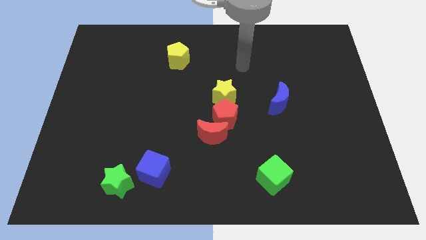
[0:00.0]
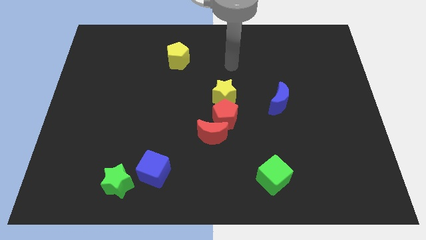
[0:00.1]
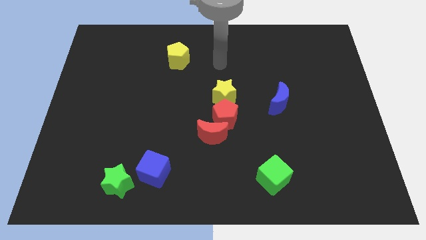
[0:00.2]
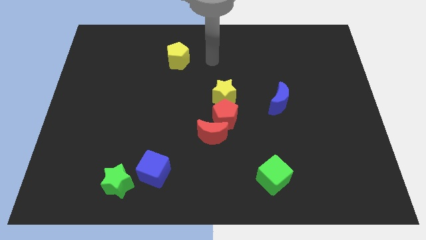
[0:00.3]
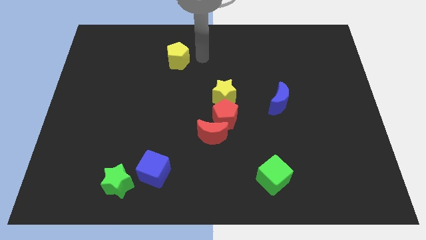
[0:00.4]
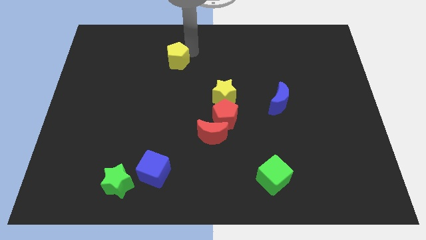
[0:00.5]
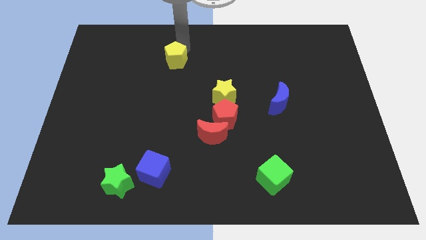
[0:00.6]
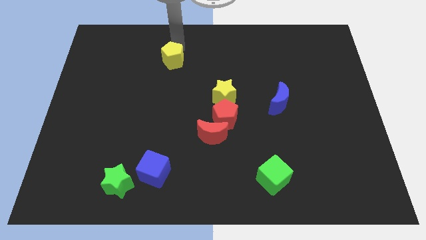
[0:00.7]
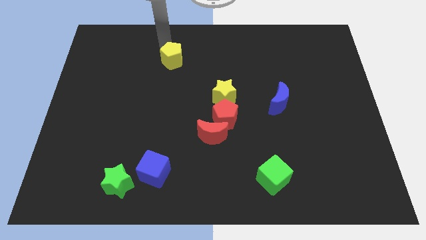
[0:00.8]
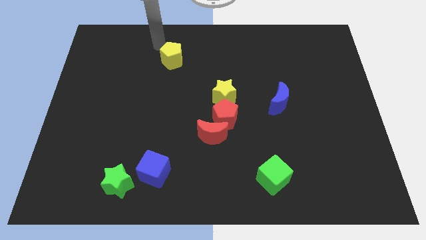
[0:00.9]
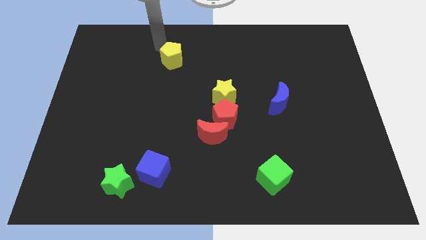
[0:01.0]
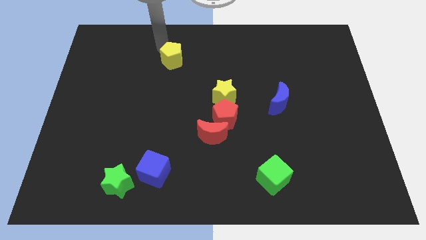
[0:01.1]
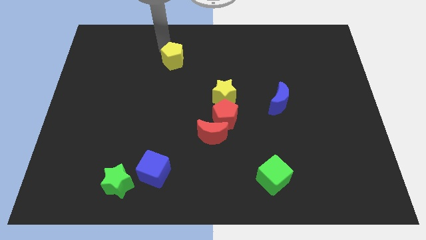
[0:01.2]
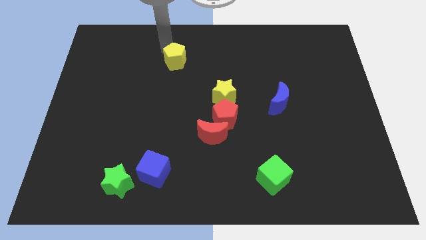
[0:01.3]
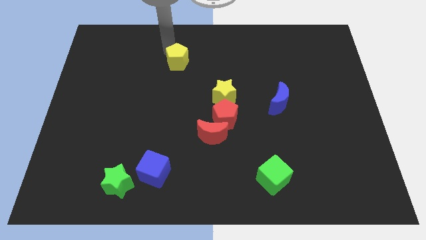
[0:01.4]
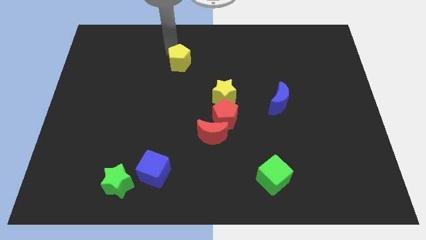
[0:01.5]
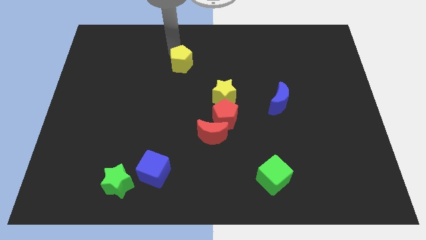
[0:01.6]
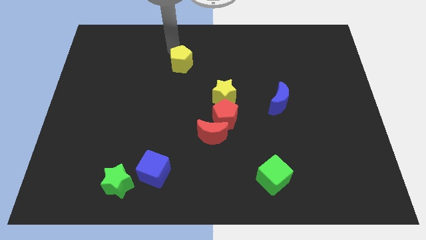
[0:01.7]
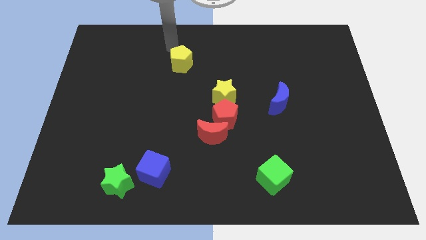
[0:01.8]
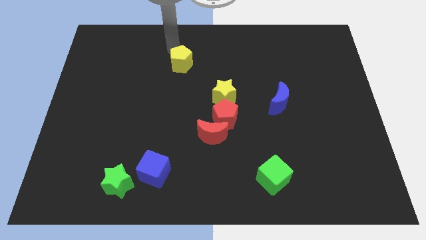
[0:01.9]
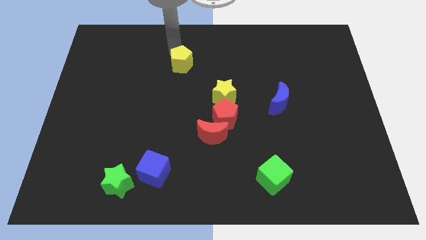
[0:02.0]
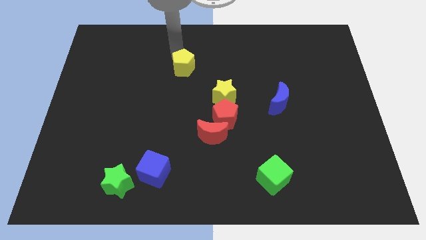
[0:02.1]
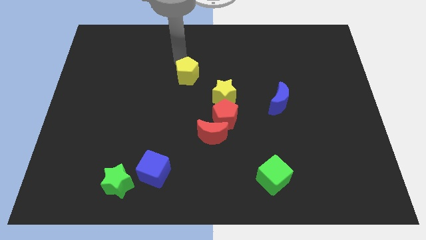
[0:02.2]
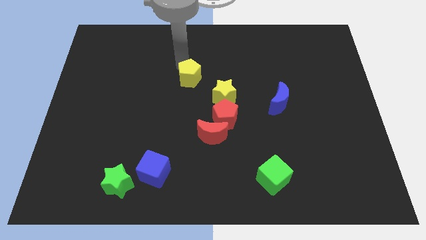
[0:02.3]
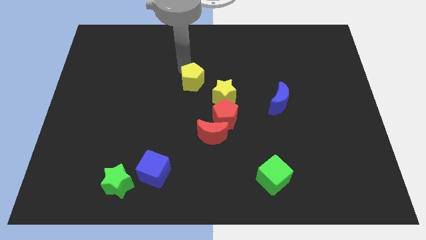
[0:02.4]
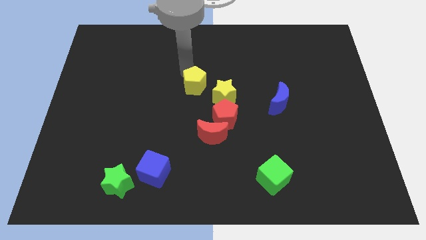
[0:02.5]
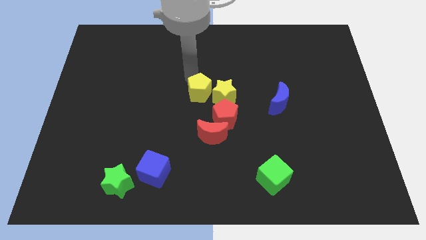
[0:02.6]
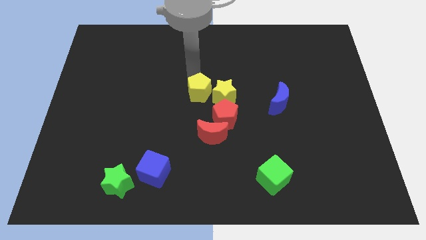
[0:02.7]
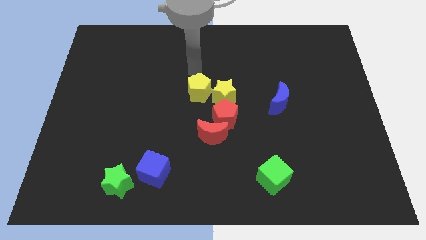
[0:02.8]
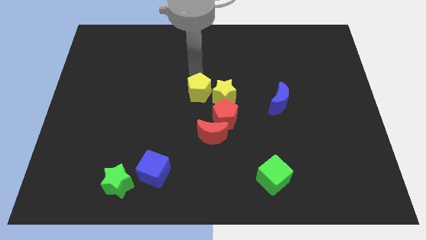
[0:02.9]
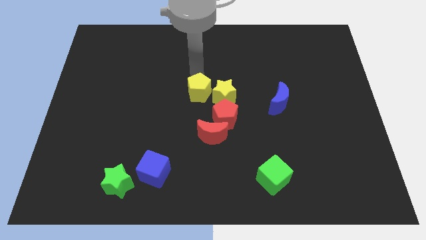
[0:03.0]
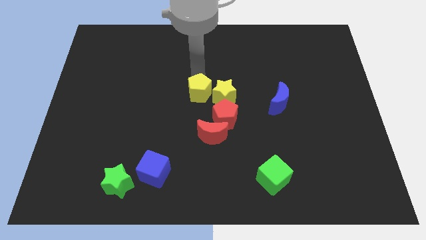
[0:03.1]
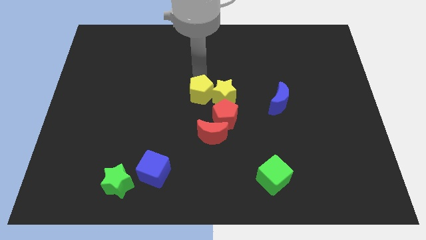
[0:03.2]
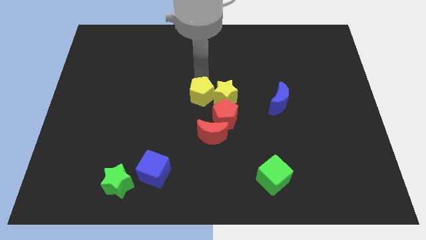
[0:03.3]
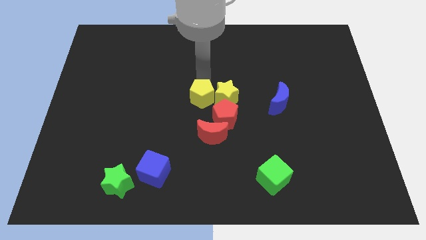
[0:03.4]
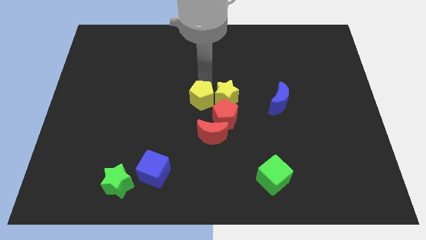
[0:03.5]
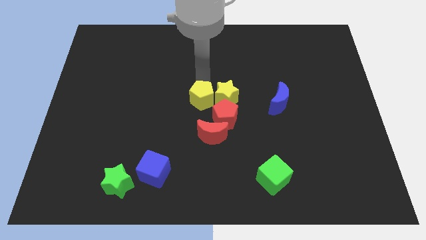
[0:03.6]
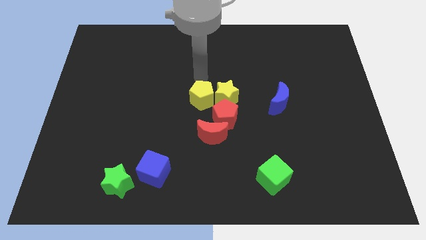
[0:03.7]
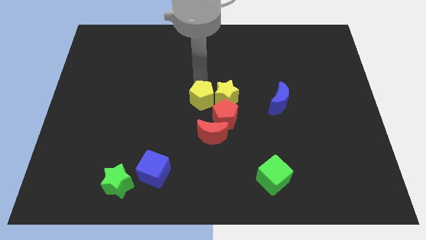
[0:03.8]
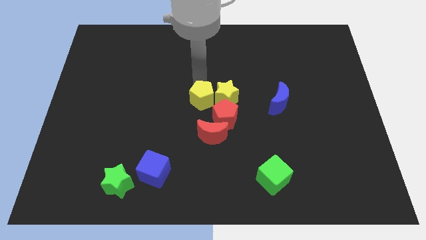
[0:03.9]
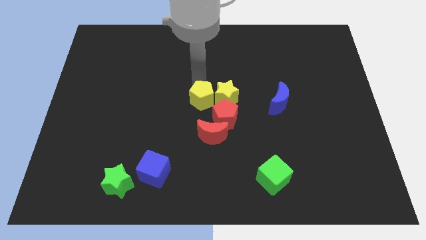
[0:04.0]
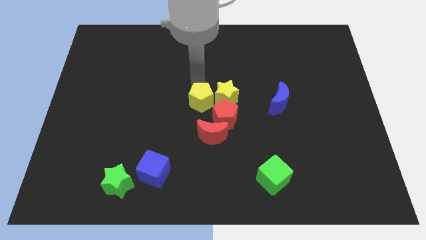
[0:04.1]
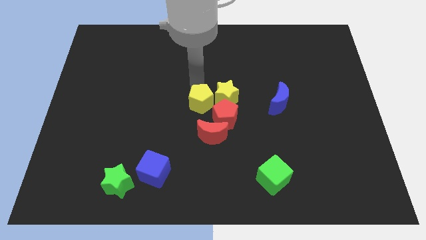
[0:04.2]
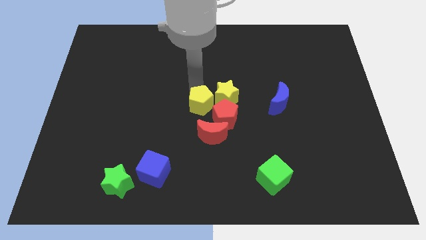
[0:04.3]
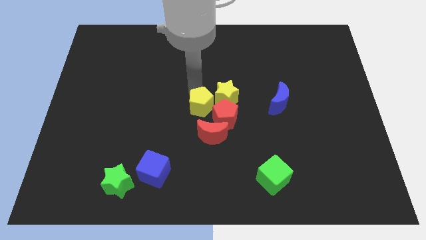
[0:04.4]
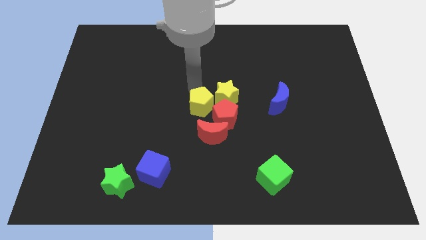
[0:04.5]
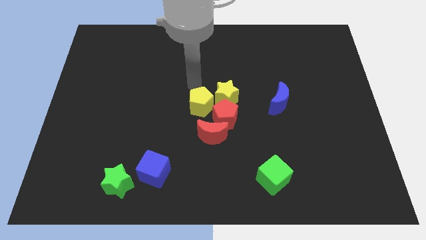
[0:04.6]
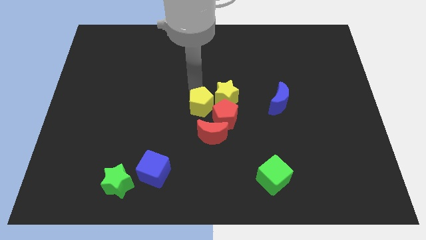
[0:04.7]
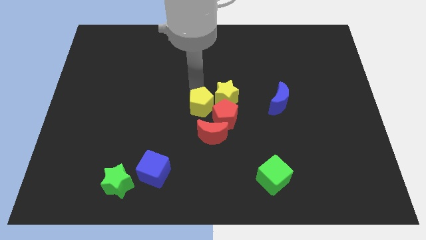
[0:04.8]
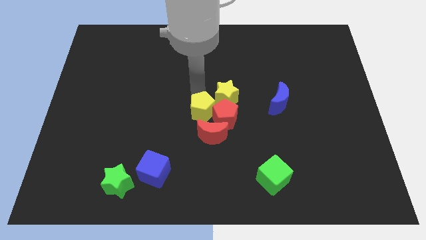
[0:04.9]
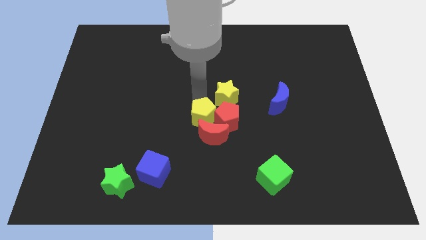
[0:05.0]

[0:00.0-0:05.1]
push the yellow pentagon next to the red moon

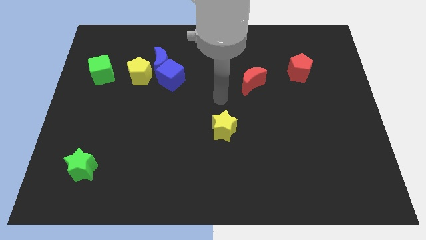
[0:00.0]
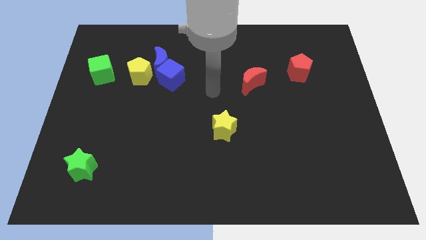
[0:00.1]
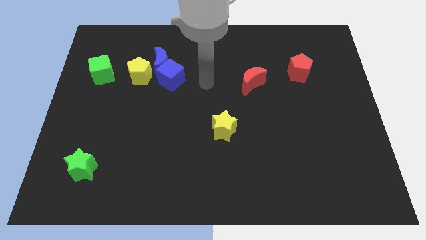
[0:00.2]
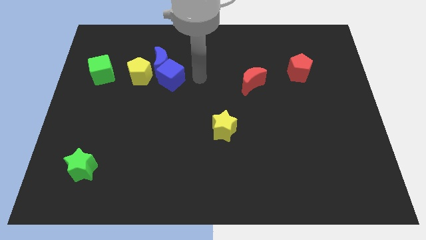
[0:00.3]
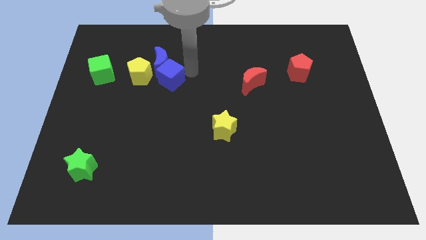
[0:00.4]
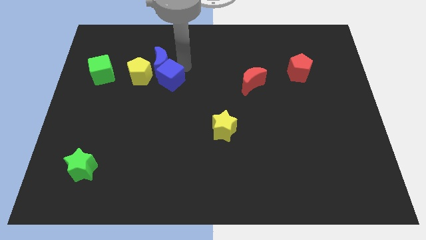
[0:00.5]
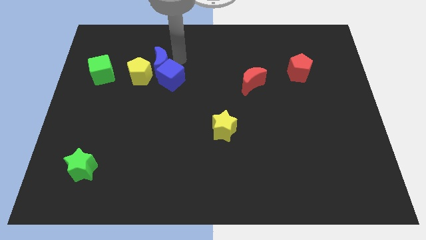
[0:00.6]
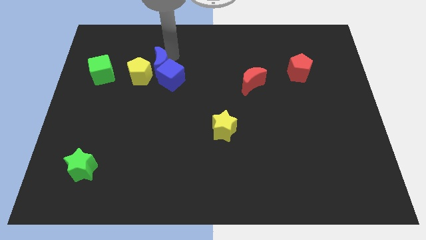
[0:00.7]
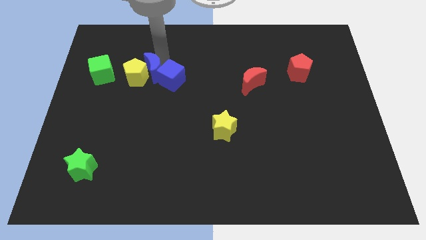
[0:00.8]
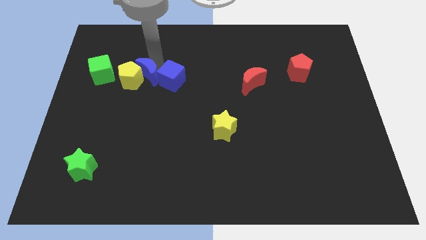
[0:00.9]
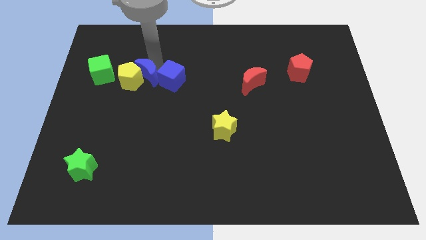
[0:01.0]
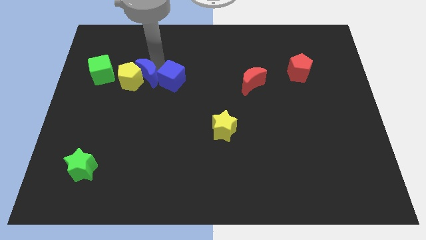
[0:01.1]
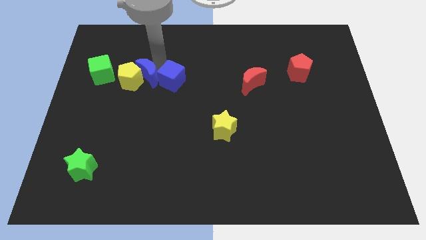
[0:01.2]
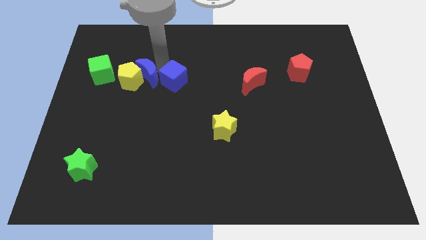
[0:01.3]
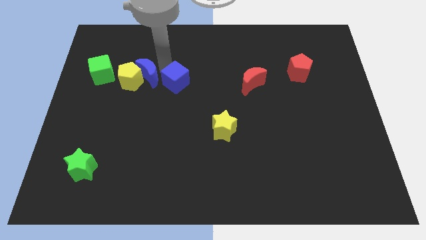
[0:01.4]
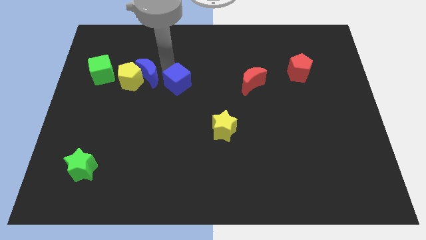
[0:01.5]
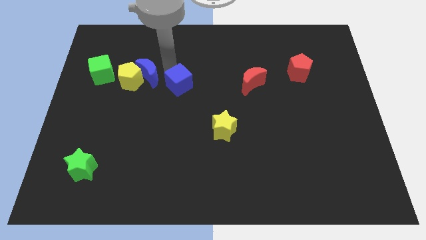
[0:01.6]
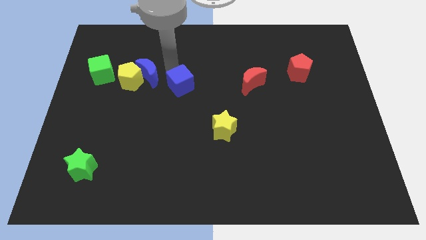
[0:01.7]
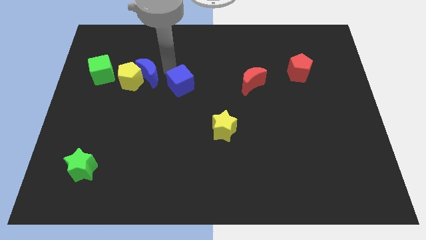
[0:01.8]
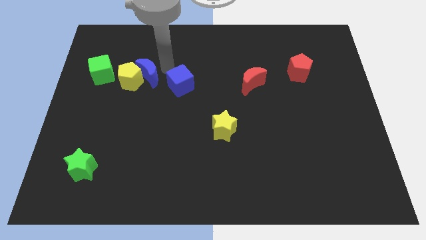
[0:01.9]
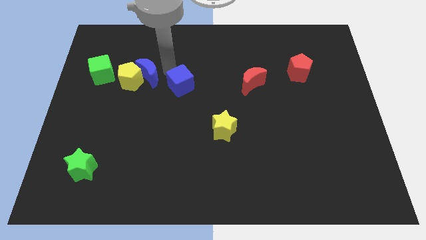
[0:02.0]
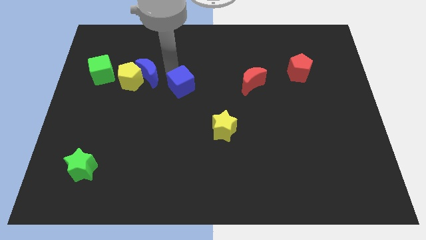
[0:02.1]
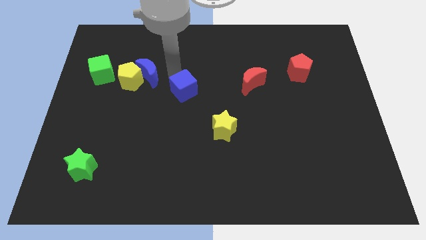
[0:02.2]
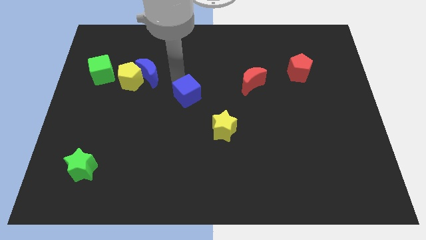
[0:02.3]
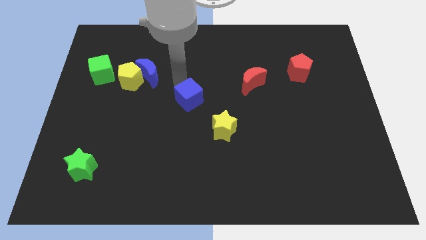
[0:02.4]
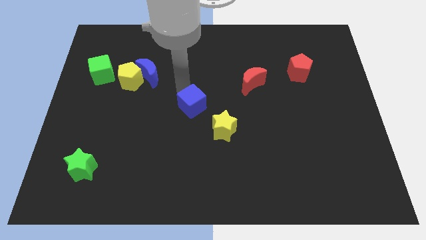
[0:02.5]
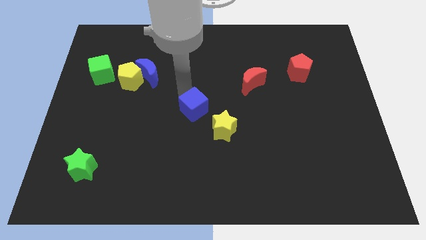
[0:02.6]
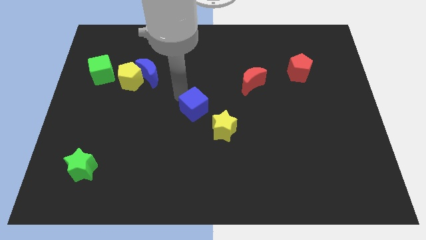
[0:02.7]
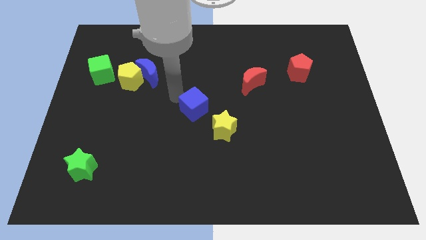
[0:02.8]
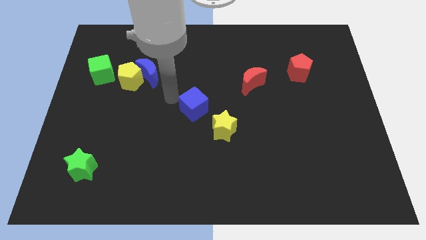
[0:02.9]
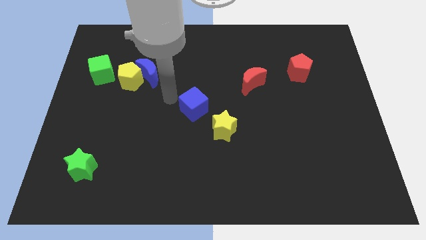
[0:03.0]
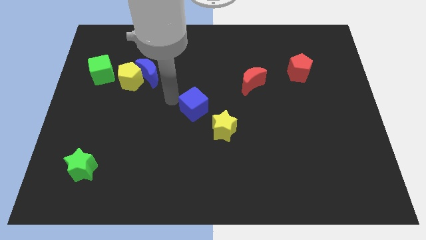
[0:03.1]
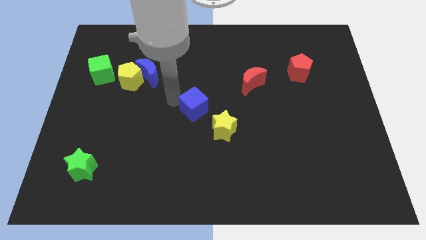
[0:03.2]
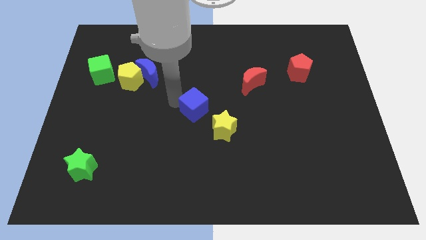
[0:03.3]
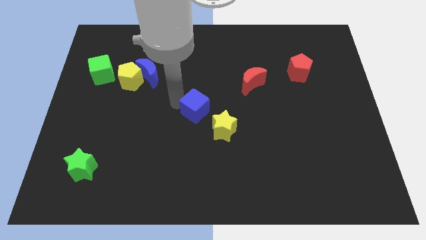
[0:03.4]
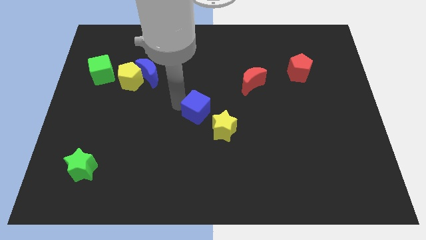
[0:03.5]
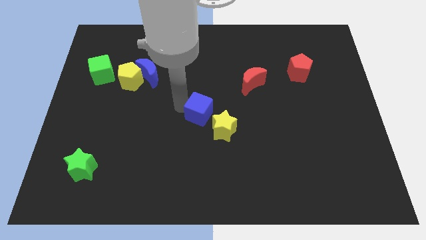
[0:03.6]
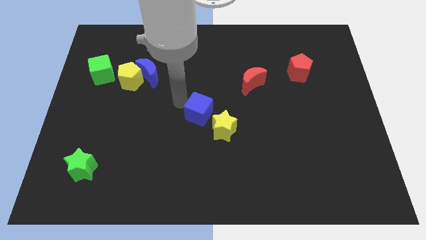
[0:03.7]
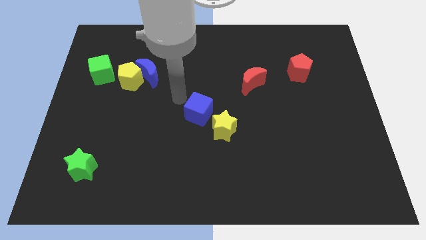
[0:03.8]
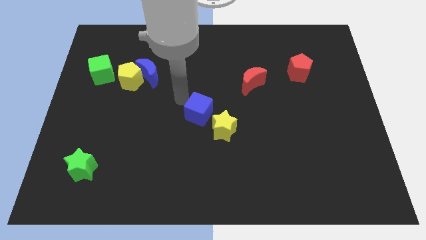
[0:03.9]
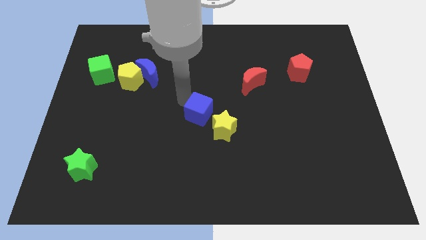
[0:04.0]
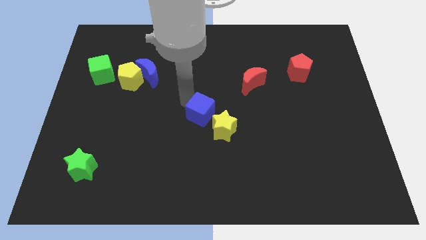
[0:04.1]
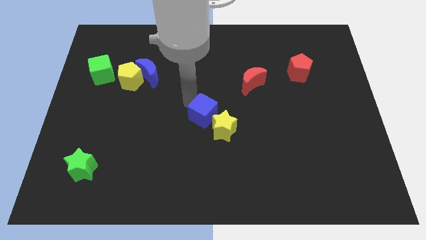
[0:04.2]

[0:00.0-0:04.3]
put the blue cube next to the yellow star
